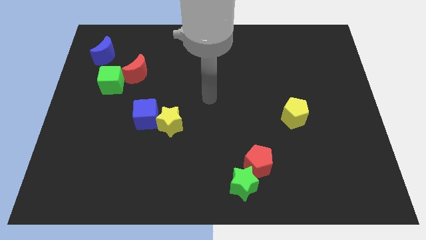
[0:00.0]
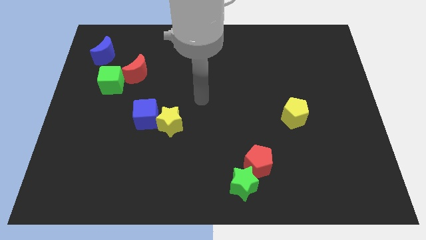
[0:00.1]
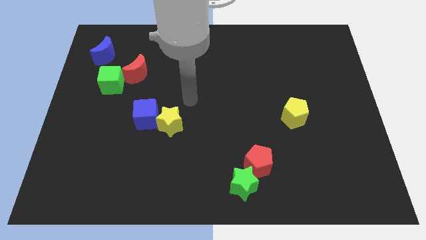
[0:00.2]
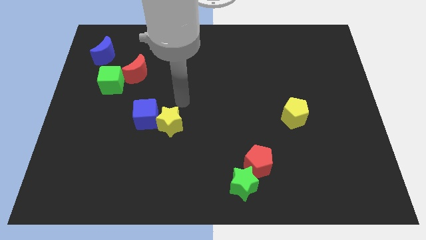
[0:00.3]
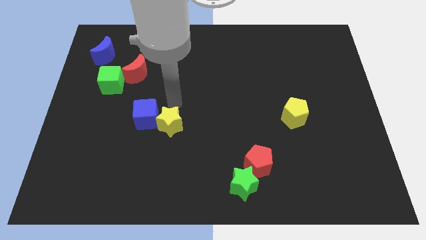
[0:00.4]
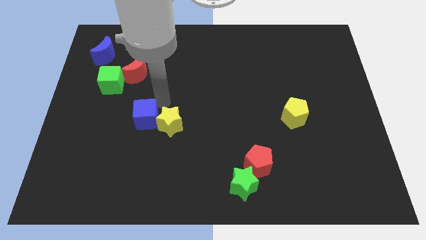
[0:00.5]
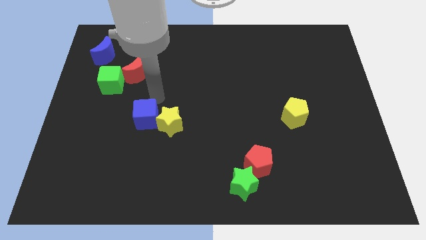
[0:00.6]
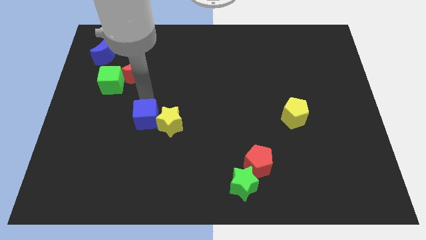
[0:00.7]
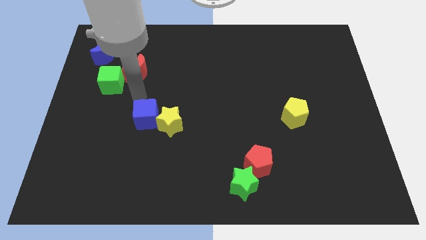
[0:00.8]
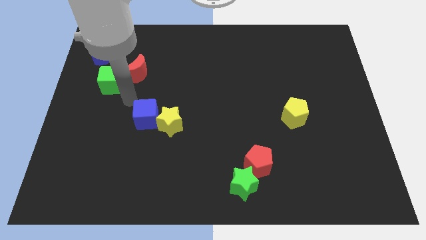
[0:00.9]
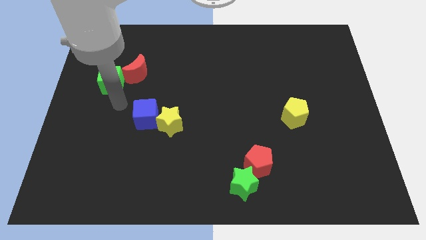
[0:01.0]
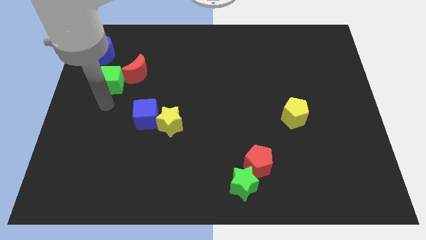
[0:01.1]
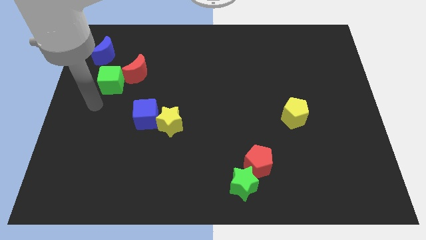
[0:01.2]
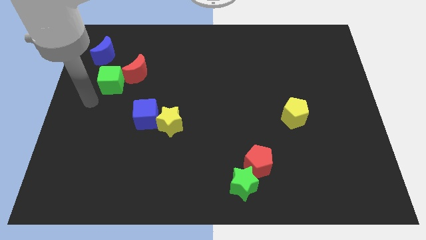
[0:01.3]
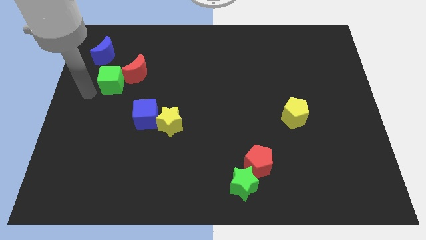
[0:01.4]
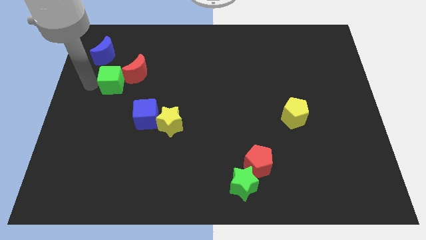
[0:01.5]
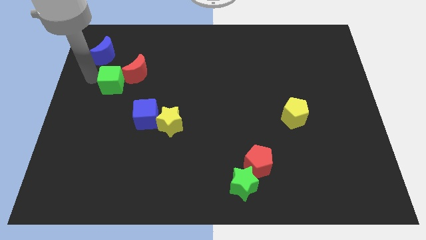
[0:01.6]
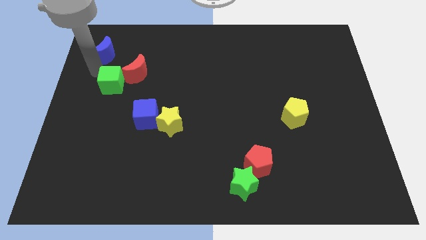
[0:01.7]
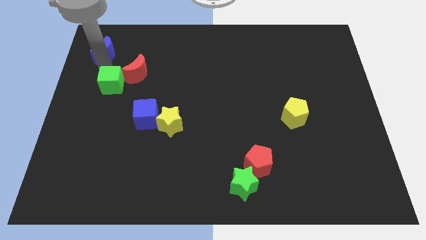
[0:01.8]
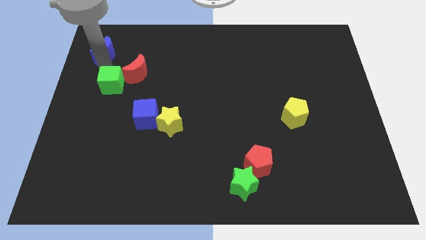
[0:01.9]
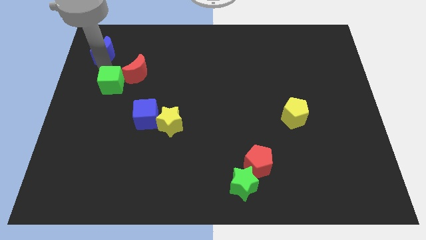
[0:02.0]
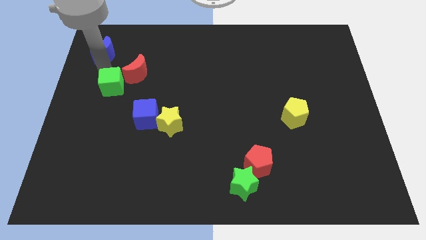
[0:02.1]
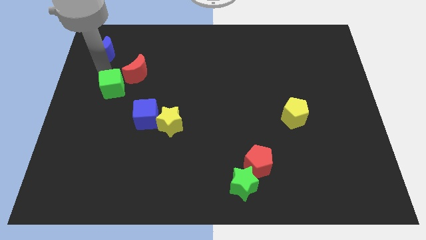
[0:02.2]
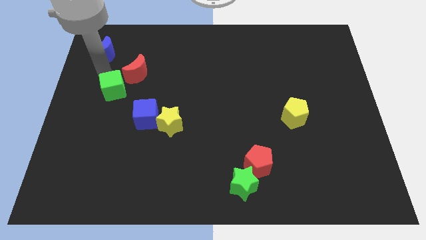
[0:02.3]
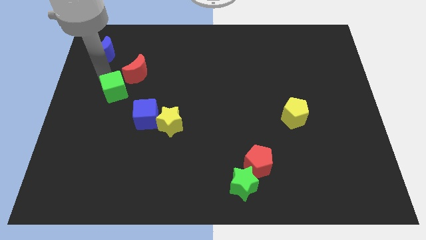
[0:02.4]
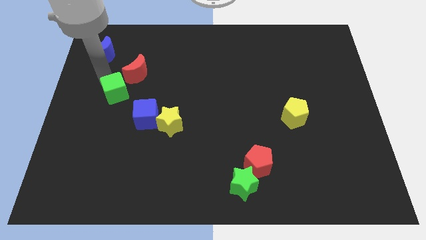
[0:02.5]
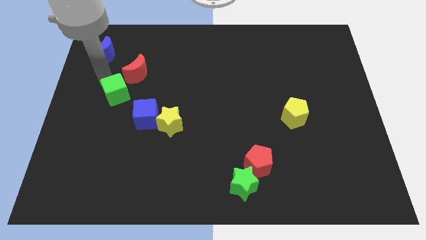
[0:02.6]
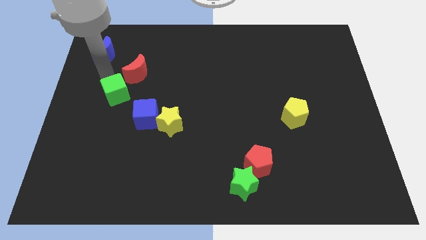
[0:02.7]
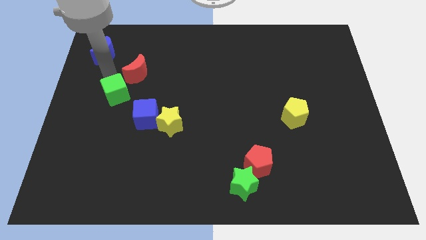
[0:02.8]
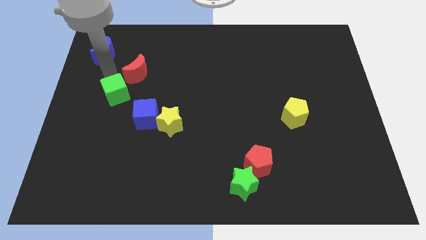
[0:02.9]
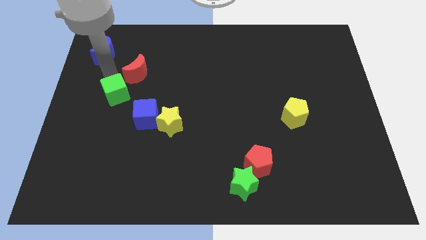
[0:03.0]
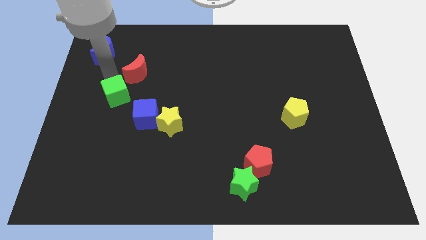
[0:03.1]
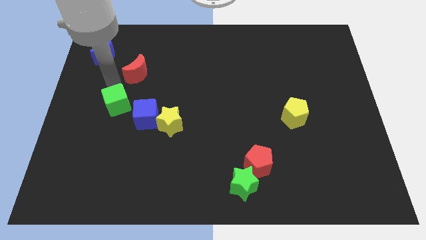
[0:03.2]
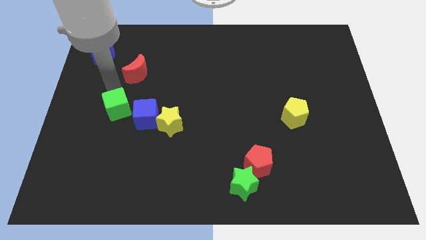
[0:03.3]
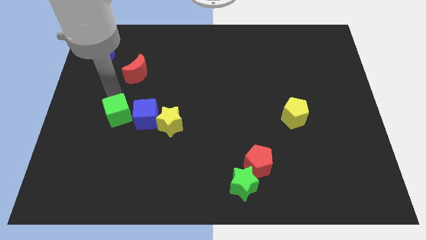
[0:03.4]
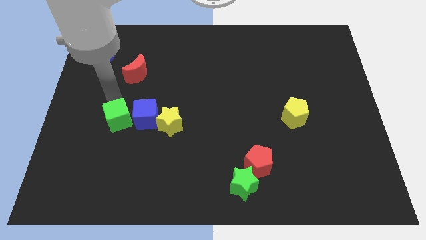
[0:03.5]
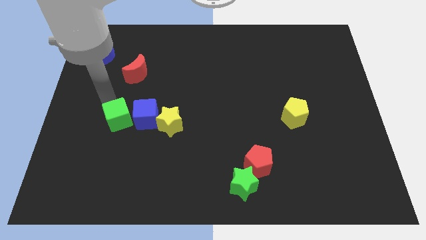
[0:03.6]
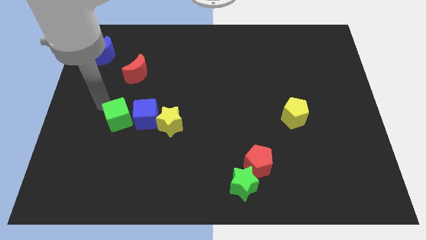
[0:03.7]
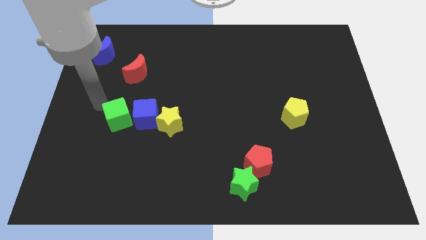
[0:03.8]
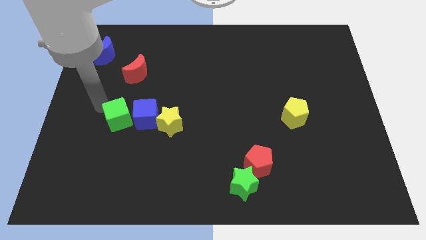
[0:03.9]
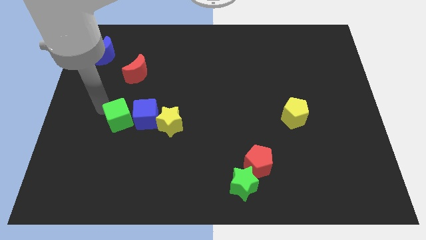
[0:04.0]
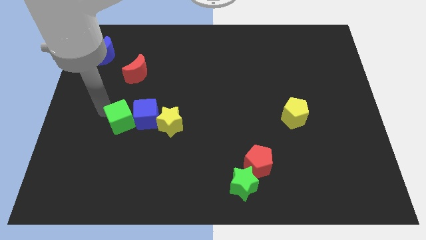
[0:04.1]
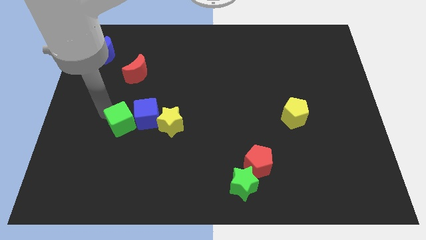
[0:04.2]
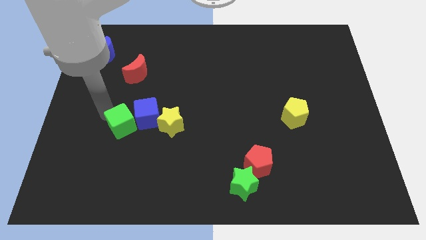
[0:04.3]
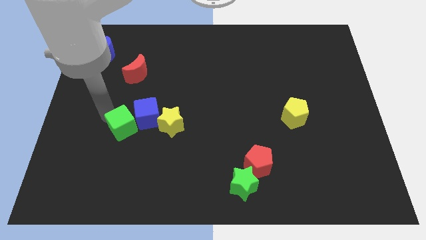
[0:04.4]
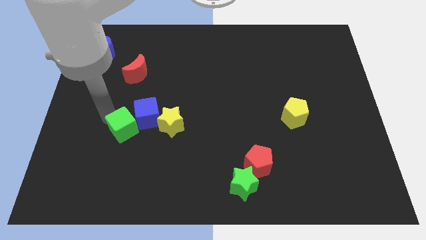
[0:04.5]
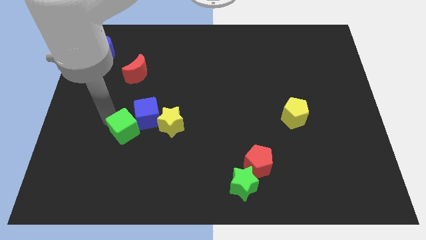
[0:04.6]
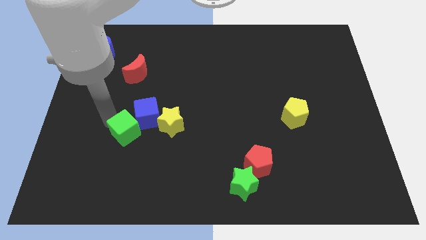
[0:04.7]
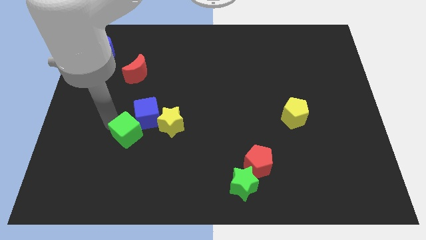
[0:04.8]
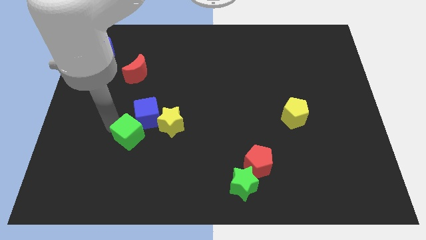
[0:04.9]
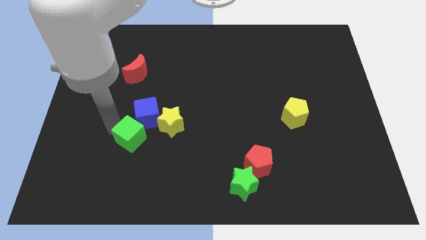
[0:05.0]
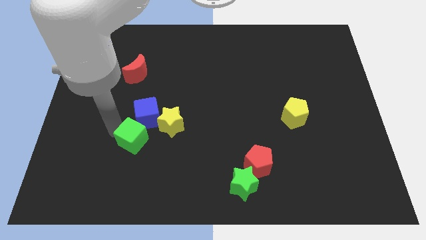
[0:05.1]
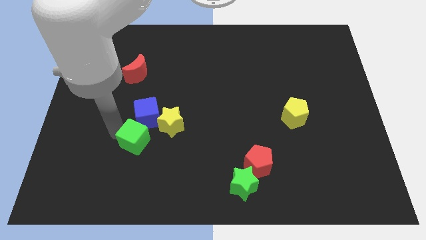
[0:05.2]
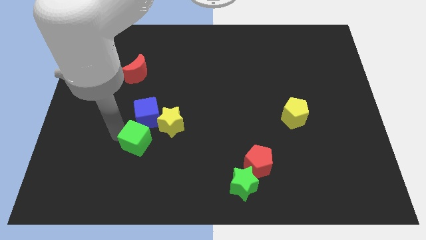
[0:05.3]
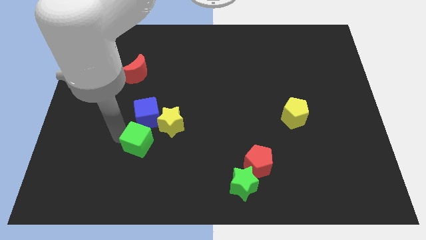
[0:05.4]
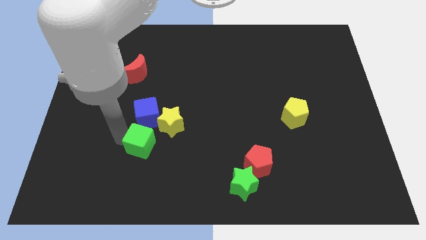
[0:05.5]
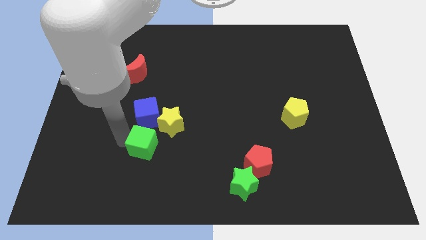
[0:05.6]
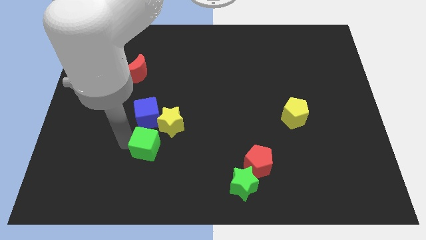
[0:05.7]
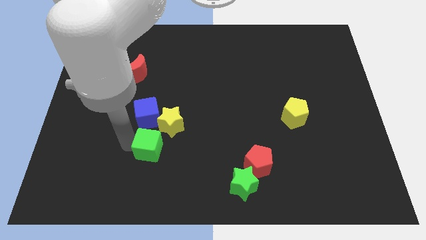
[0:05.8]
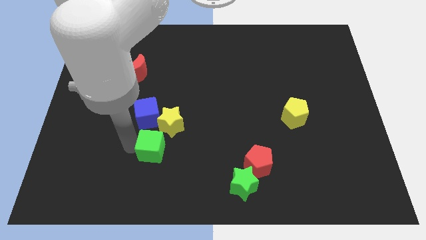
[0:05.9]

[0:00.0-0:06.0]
move the green cube diagonally down and to the right of the blue cube

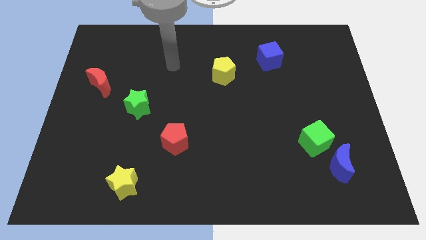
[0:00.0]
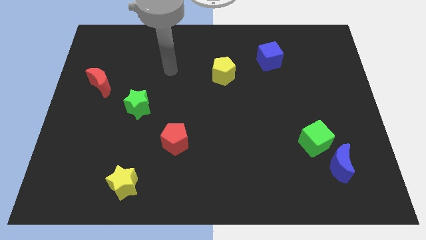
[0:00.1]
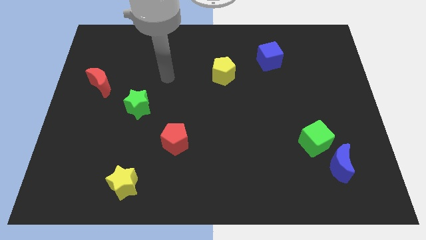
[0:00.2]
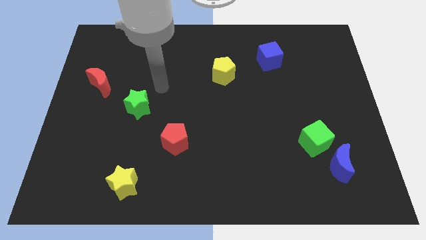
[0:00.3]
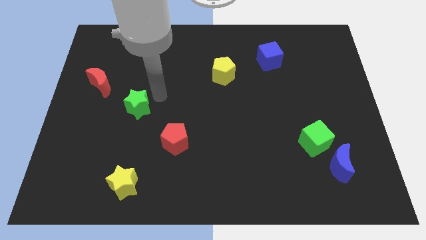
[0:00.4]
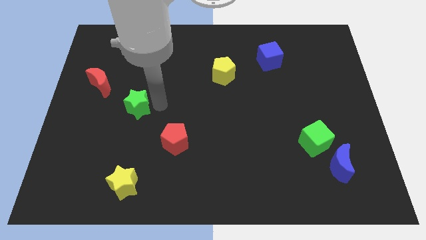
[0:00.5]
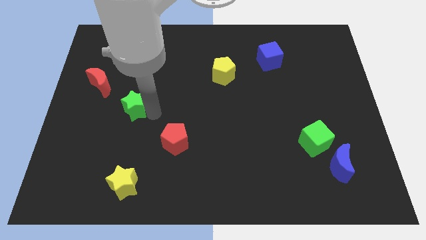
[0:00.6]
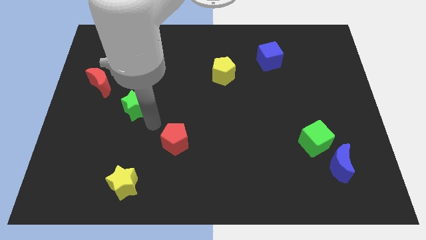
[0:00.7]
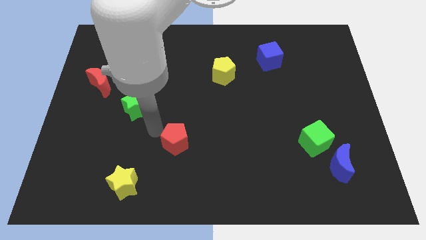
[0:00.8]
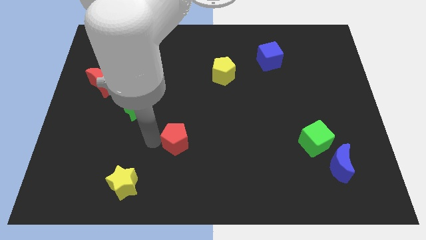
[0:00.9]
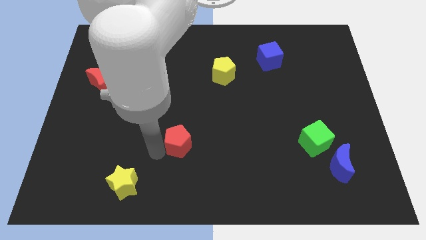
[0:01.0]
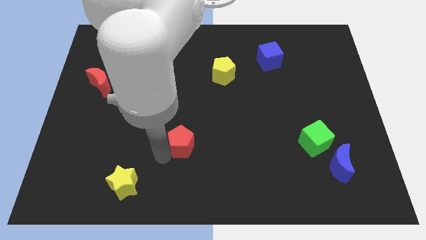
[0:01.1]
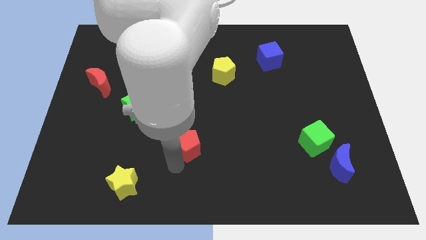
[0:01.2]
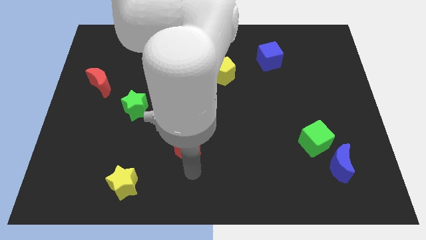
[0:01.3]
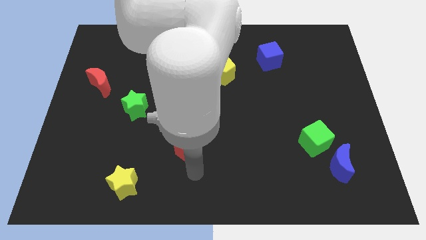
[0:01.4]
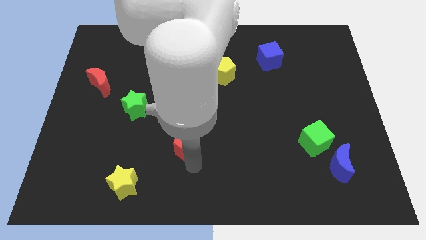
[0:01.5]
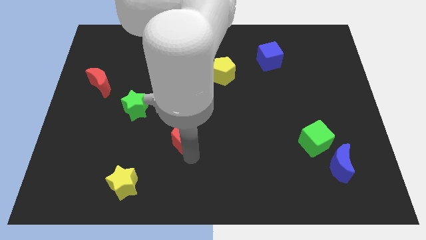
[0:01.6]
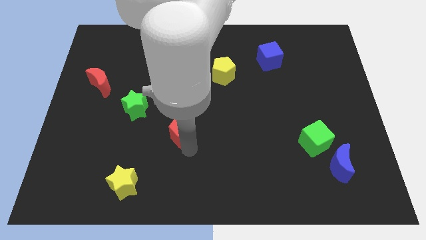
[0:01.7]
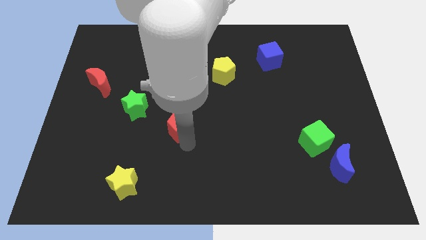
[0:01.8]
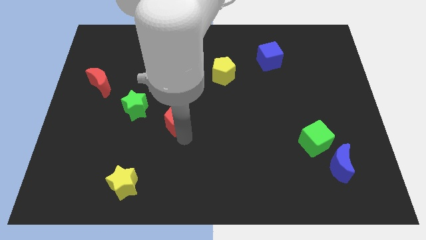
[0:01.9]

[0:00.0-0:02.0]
slide the red pentagon to the right side of the green star

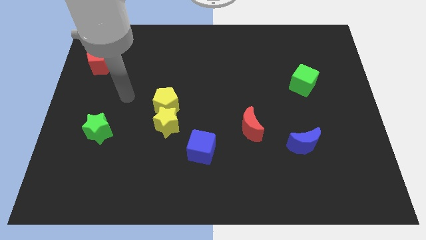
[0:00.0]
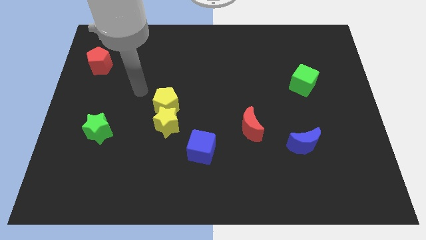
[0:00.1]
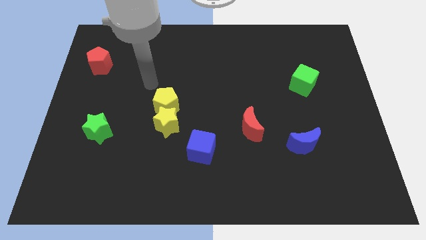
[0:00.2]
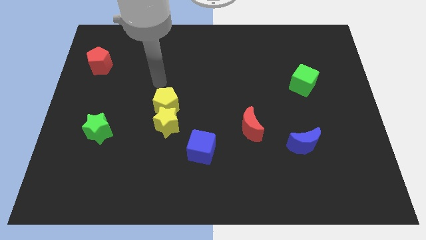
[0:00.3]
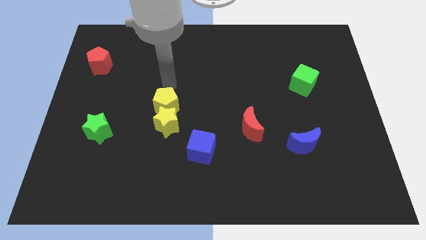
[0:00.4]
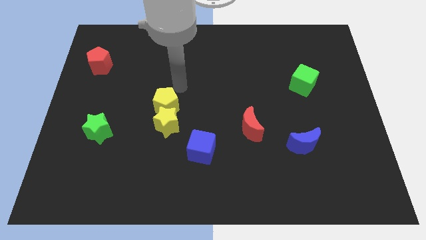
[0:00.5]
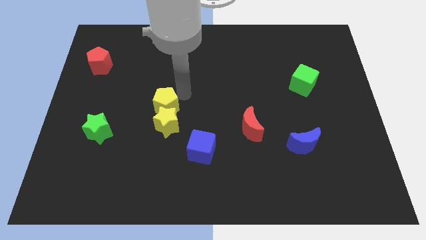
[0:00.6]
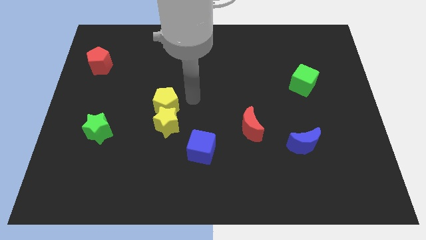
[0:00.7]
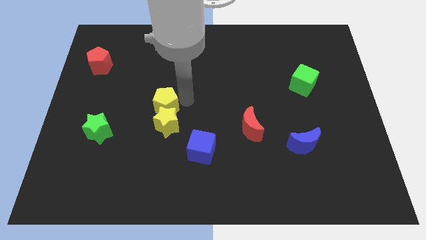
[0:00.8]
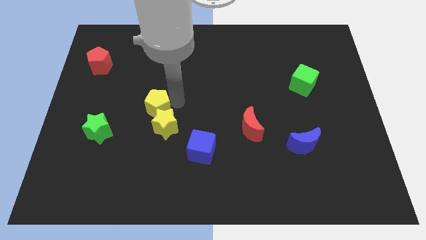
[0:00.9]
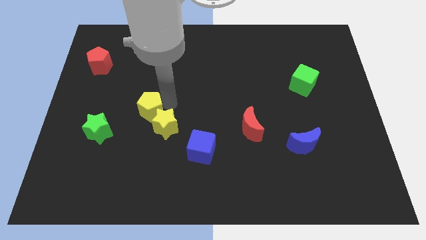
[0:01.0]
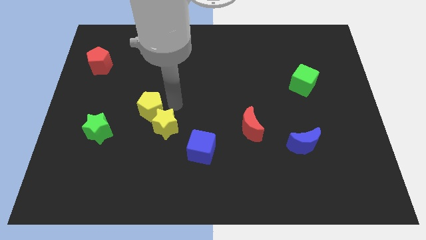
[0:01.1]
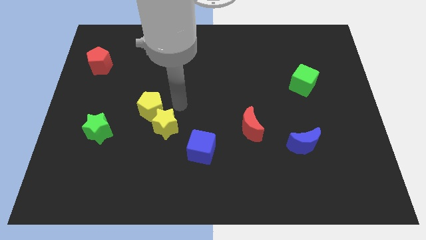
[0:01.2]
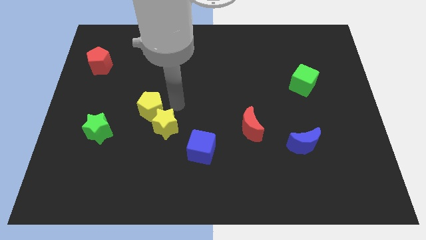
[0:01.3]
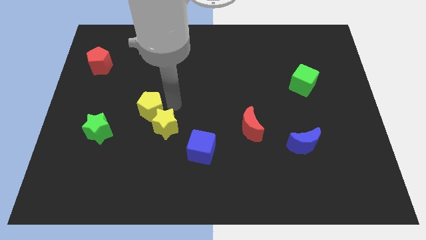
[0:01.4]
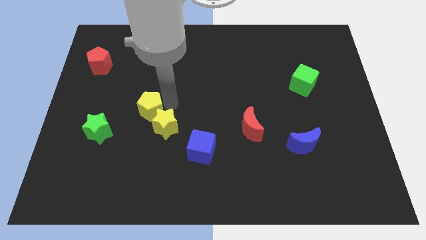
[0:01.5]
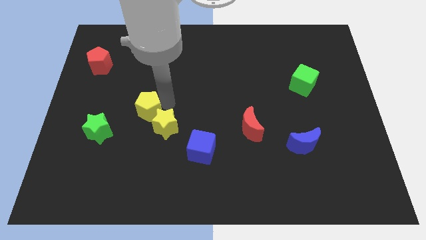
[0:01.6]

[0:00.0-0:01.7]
move the yellow pentagon diagonally up and to the right of the green star
